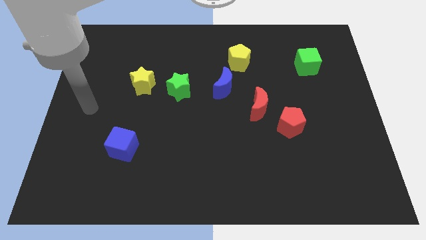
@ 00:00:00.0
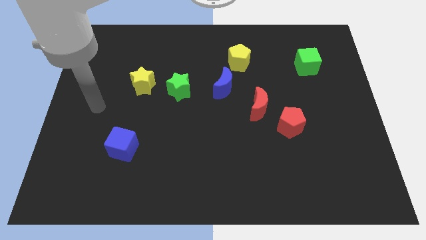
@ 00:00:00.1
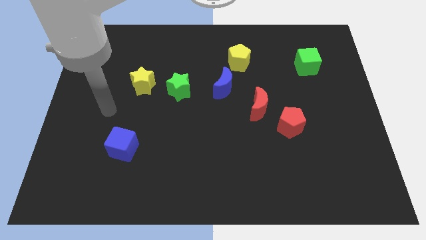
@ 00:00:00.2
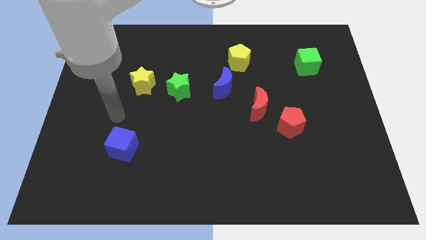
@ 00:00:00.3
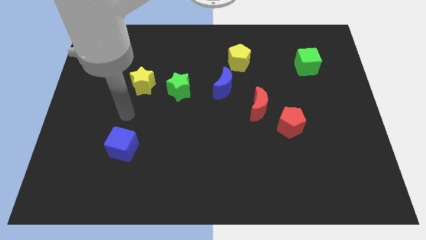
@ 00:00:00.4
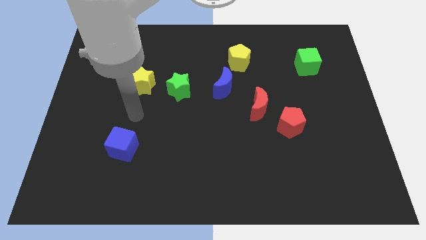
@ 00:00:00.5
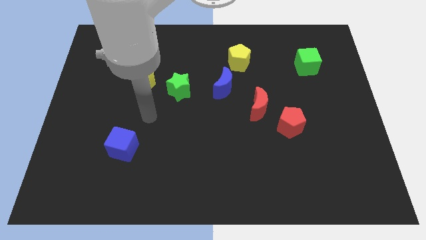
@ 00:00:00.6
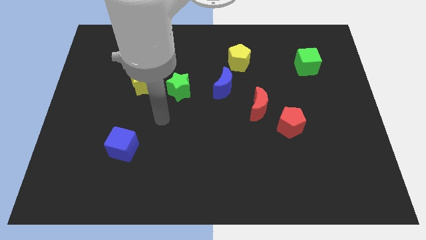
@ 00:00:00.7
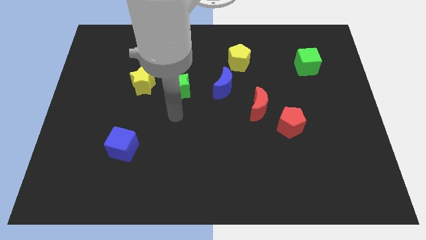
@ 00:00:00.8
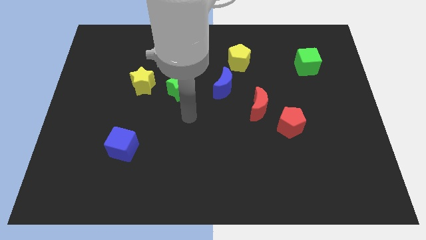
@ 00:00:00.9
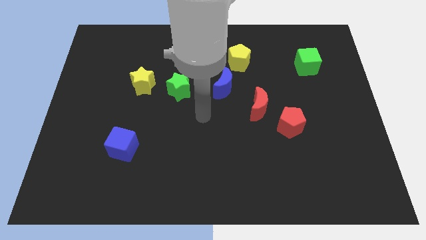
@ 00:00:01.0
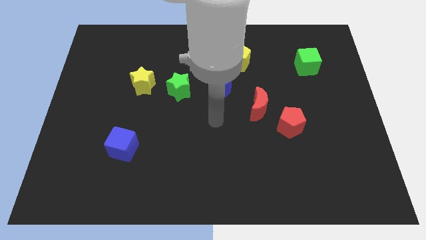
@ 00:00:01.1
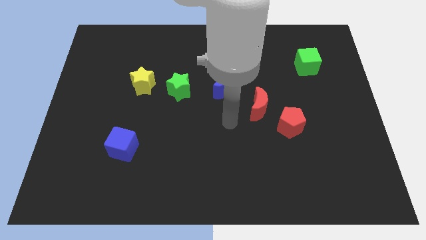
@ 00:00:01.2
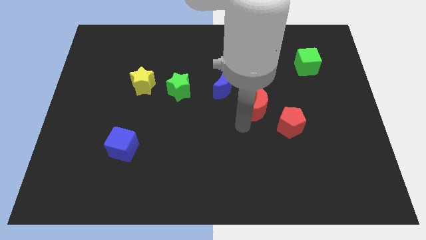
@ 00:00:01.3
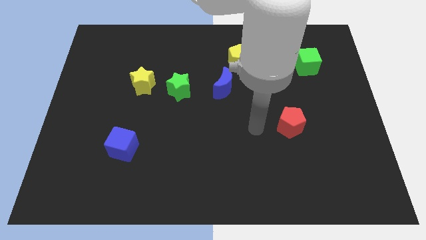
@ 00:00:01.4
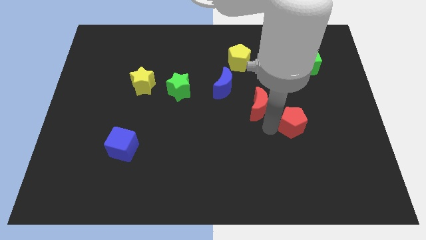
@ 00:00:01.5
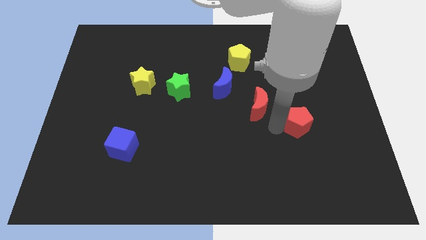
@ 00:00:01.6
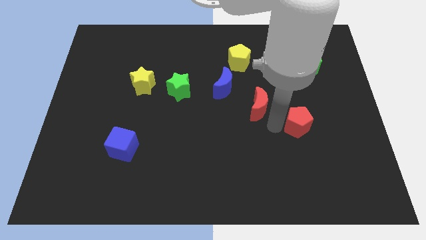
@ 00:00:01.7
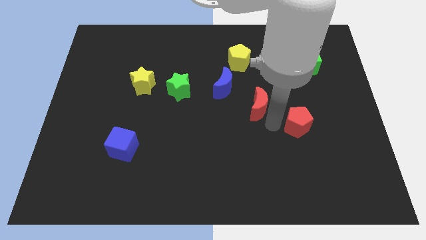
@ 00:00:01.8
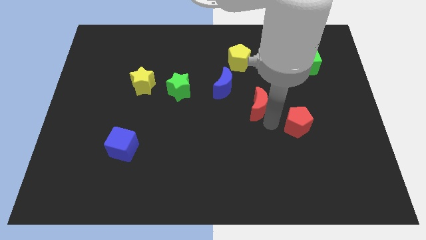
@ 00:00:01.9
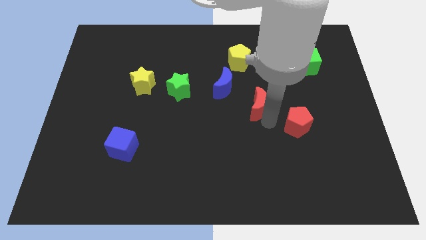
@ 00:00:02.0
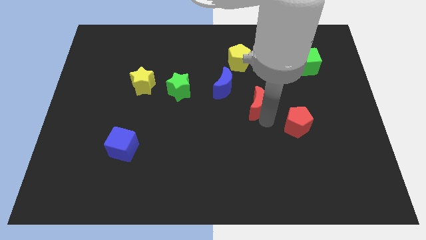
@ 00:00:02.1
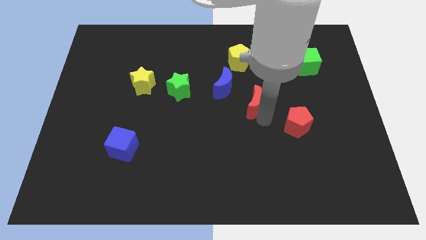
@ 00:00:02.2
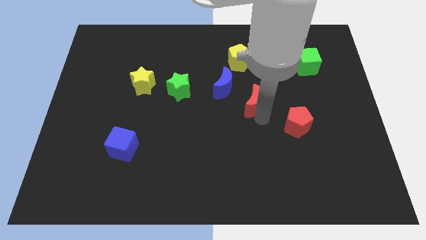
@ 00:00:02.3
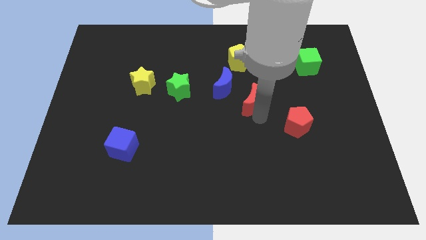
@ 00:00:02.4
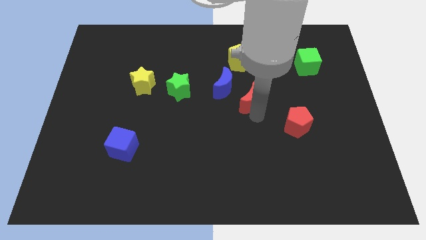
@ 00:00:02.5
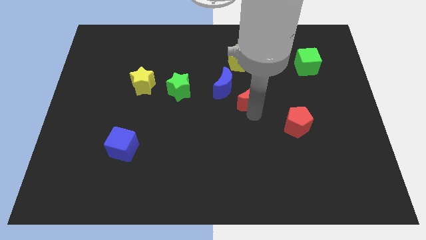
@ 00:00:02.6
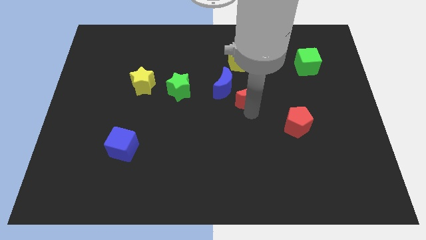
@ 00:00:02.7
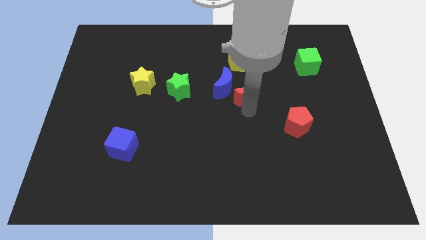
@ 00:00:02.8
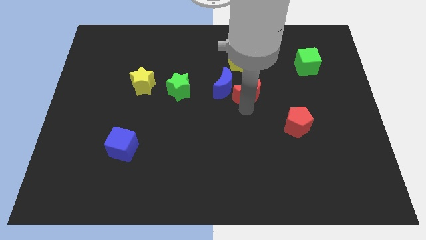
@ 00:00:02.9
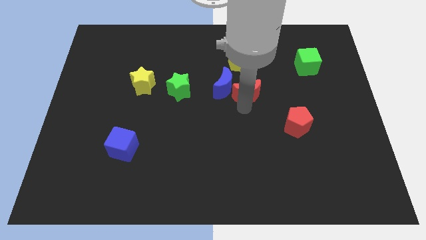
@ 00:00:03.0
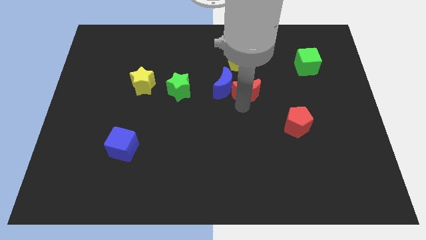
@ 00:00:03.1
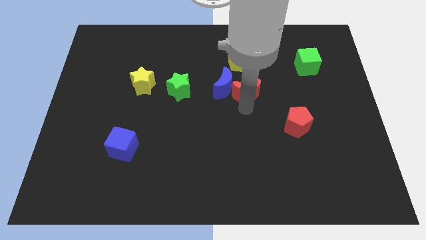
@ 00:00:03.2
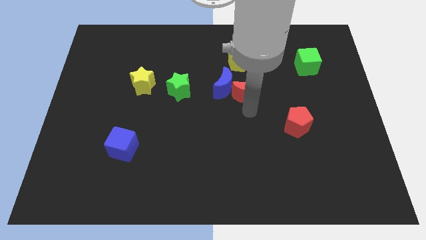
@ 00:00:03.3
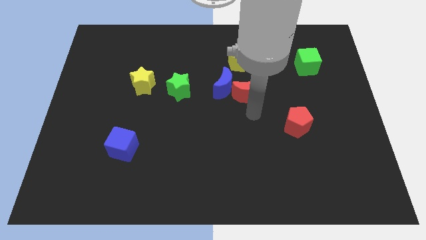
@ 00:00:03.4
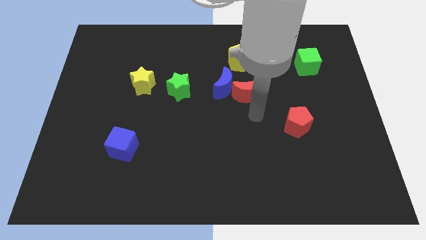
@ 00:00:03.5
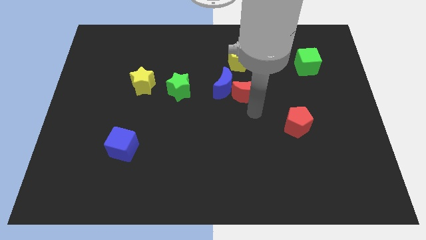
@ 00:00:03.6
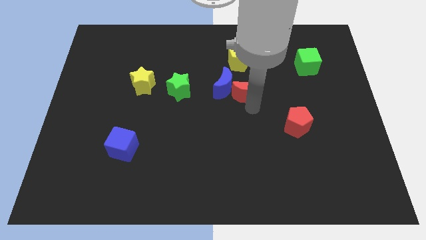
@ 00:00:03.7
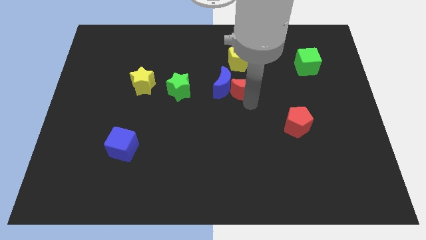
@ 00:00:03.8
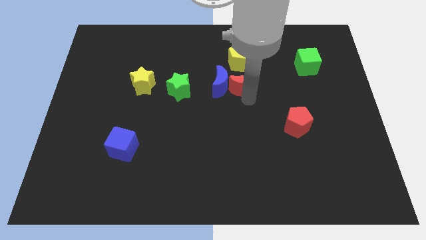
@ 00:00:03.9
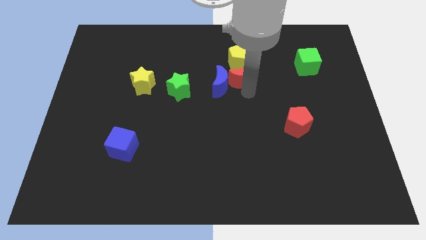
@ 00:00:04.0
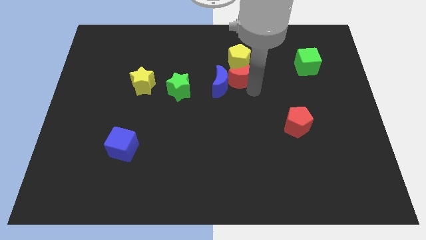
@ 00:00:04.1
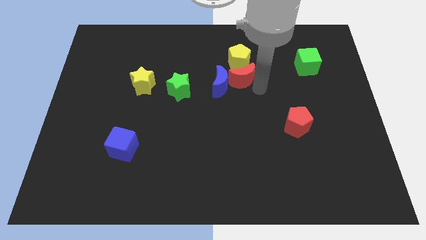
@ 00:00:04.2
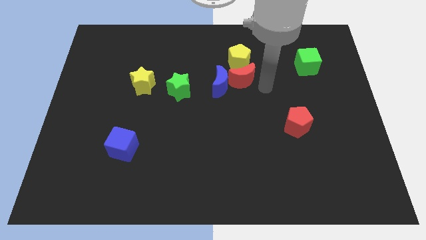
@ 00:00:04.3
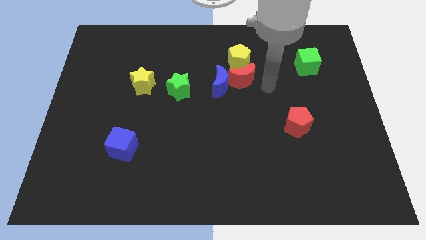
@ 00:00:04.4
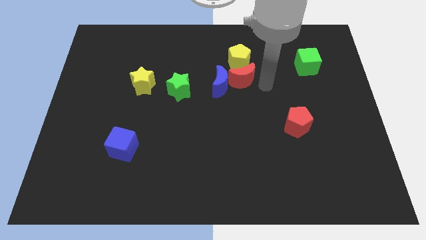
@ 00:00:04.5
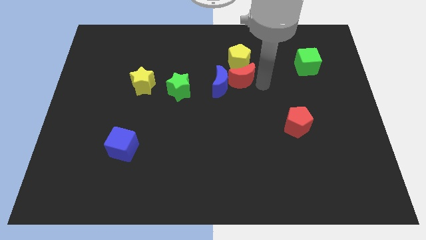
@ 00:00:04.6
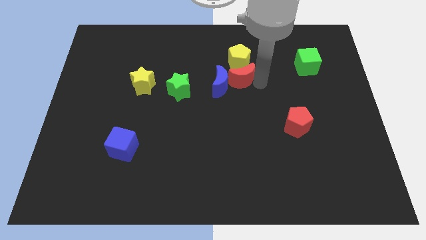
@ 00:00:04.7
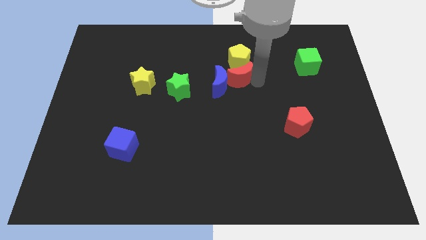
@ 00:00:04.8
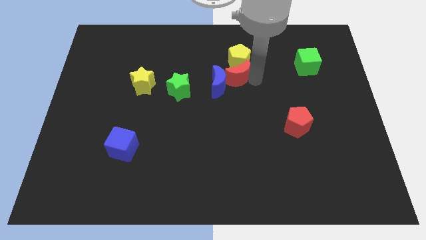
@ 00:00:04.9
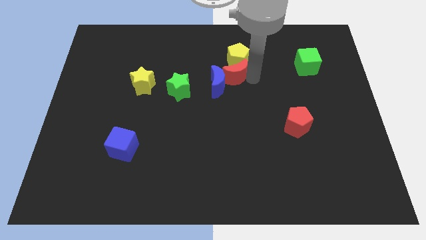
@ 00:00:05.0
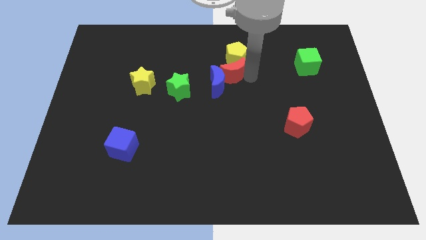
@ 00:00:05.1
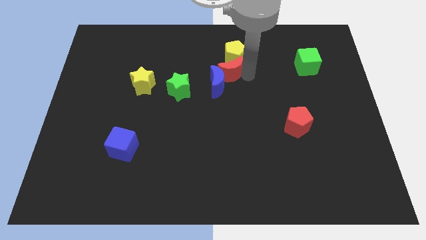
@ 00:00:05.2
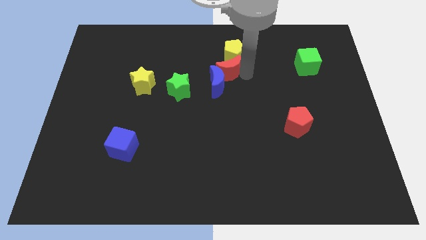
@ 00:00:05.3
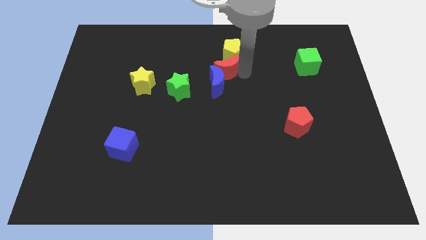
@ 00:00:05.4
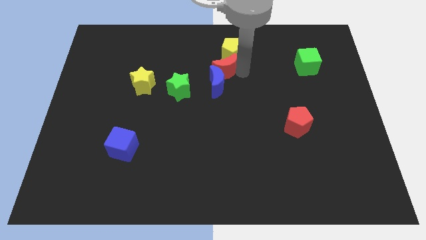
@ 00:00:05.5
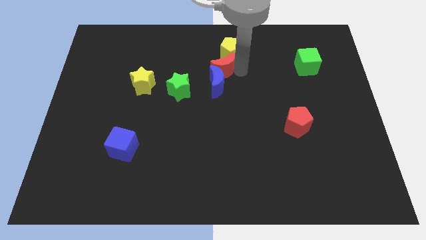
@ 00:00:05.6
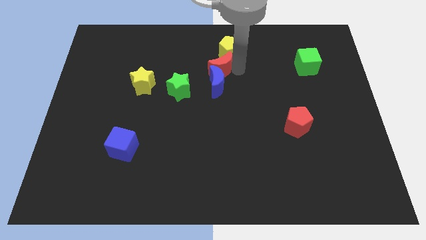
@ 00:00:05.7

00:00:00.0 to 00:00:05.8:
put the red moon to the top right of the green star

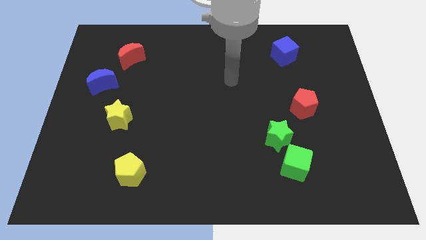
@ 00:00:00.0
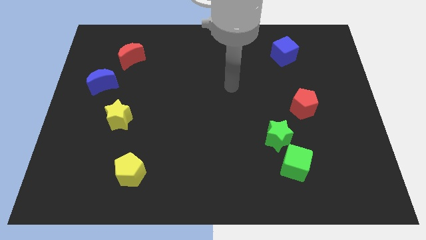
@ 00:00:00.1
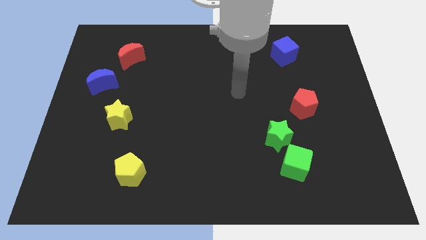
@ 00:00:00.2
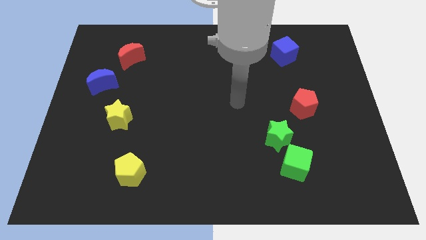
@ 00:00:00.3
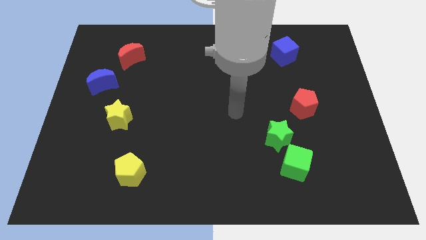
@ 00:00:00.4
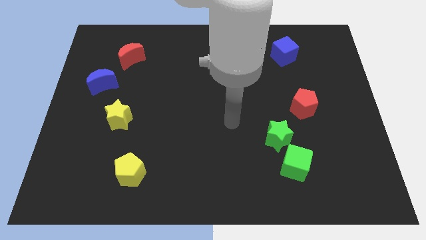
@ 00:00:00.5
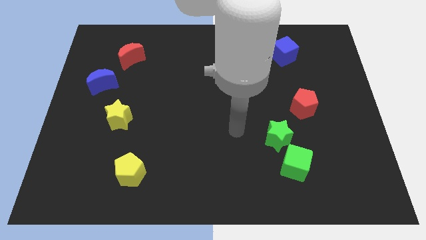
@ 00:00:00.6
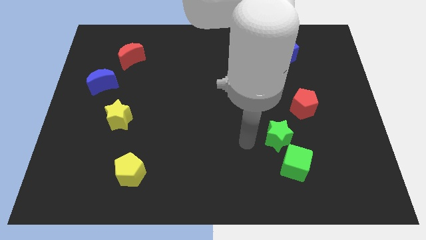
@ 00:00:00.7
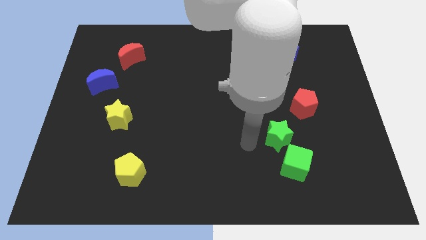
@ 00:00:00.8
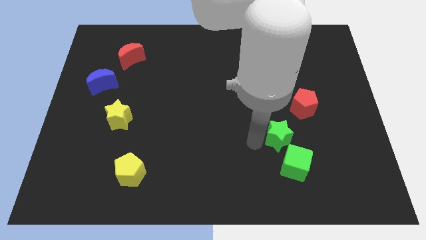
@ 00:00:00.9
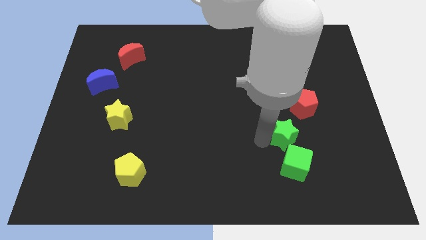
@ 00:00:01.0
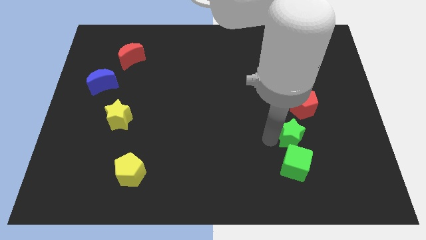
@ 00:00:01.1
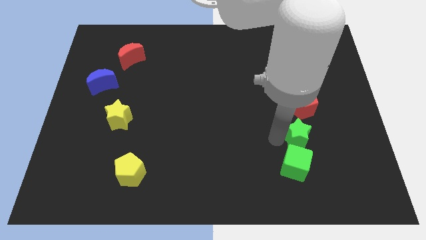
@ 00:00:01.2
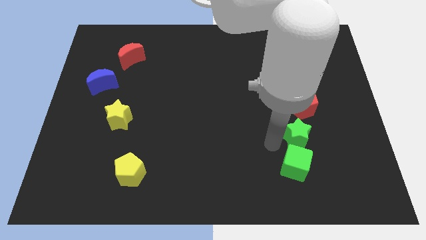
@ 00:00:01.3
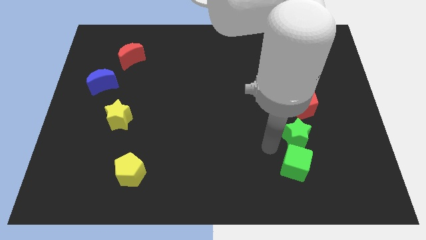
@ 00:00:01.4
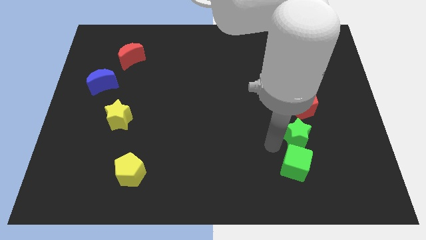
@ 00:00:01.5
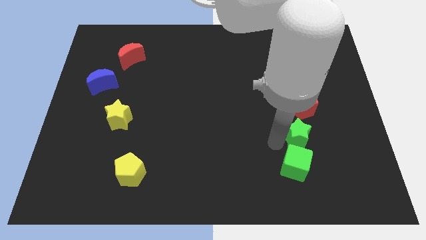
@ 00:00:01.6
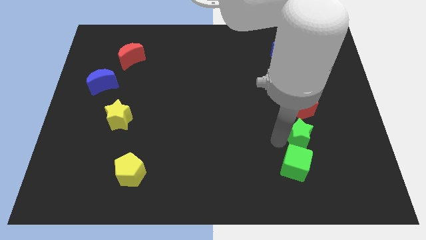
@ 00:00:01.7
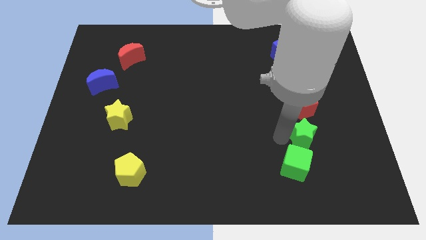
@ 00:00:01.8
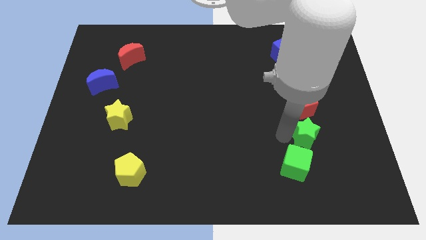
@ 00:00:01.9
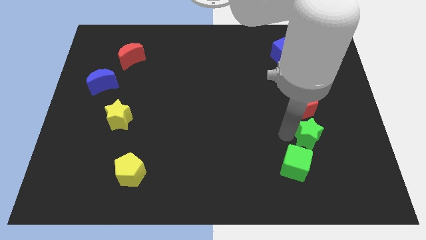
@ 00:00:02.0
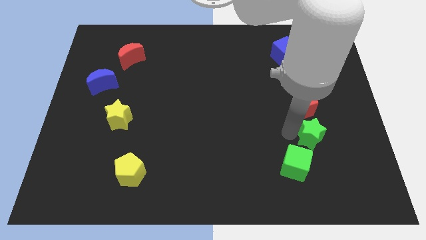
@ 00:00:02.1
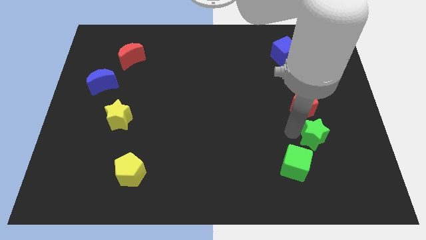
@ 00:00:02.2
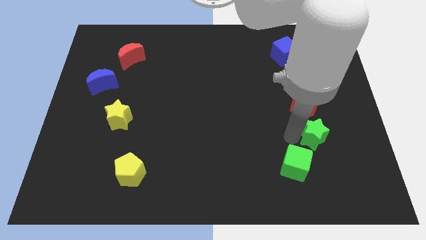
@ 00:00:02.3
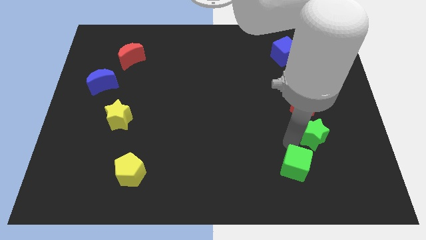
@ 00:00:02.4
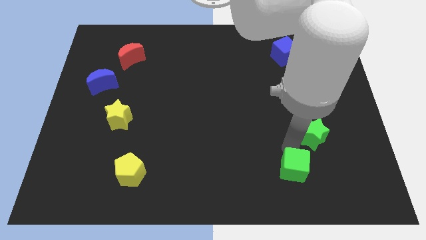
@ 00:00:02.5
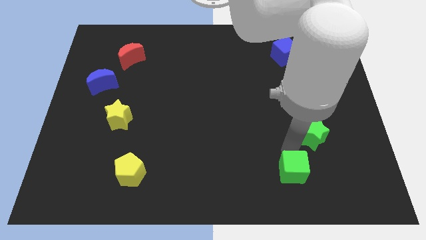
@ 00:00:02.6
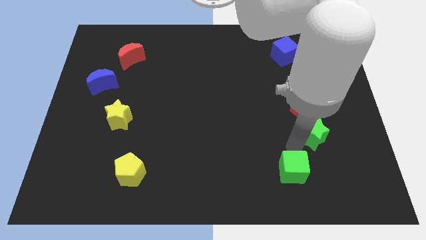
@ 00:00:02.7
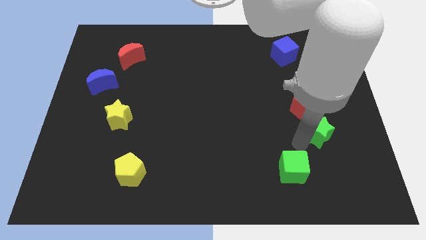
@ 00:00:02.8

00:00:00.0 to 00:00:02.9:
move the green star diagonally down and to the right of the red pentagon
